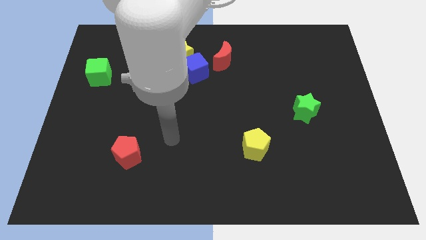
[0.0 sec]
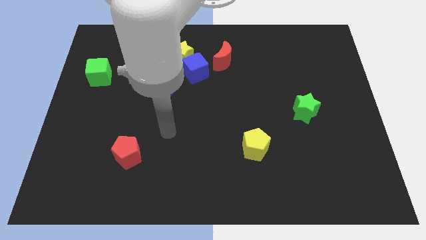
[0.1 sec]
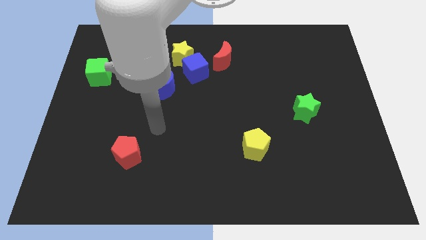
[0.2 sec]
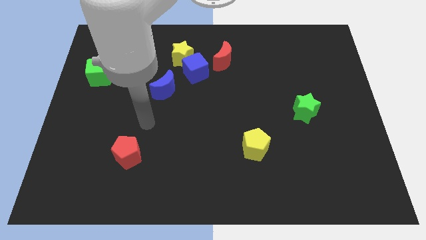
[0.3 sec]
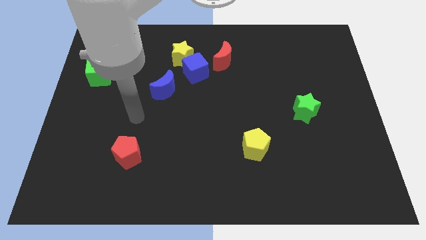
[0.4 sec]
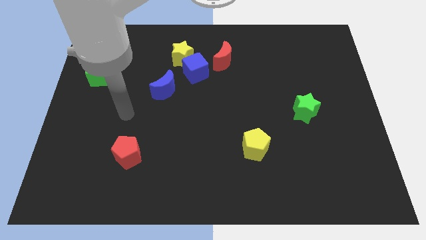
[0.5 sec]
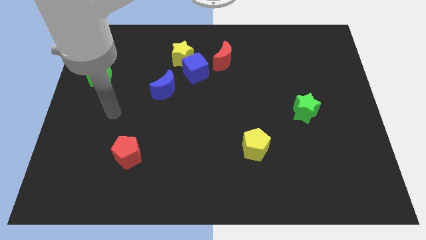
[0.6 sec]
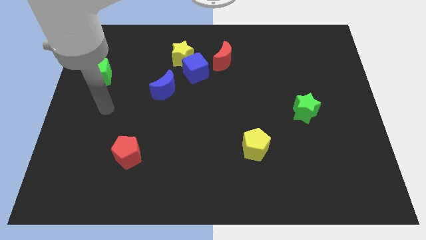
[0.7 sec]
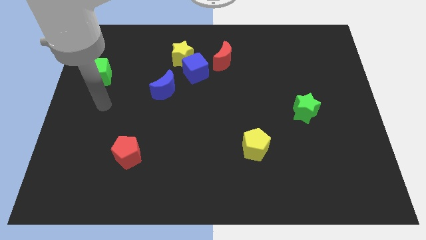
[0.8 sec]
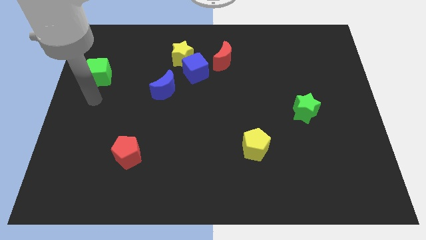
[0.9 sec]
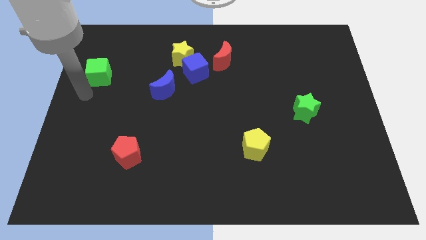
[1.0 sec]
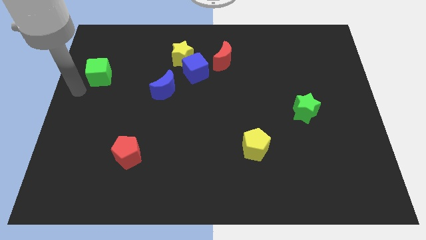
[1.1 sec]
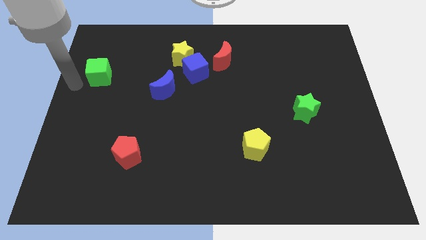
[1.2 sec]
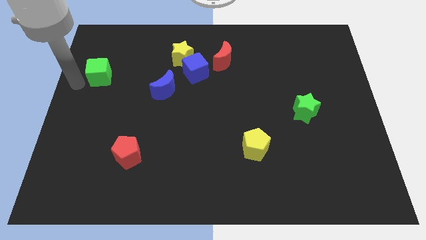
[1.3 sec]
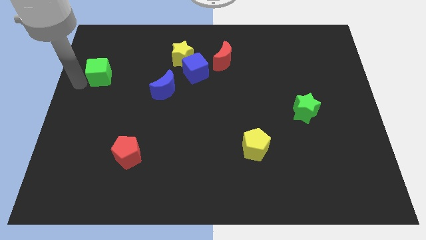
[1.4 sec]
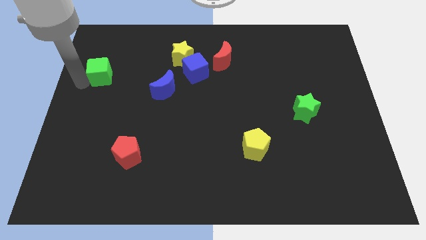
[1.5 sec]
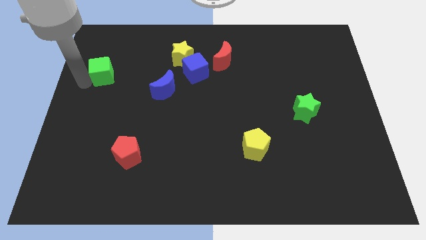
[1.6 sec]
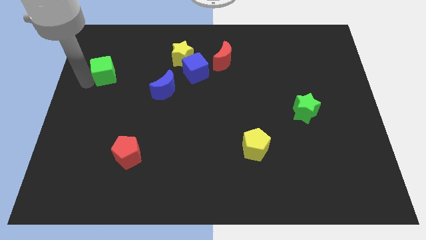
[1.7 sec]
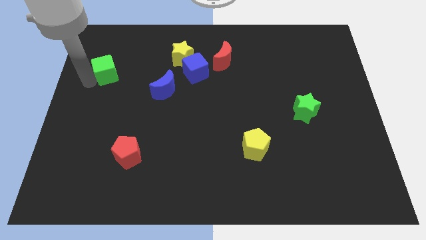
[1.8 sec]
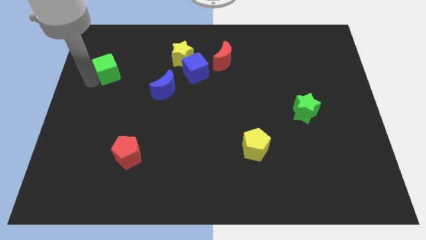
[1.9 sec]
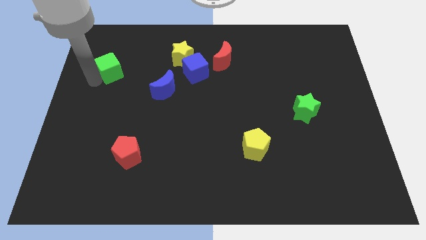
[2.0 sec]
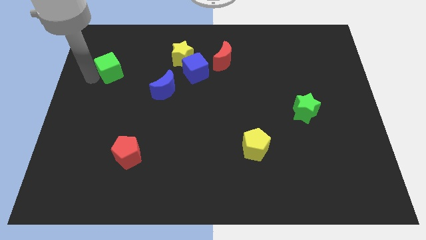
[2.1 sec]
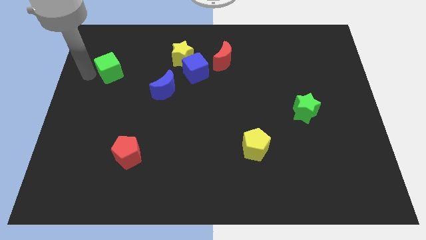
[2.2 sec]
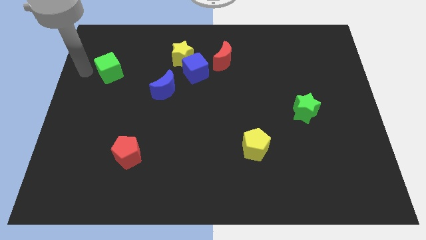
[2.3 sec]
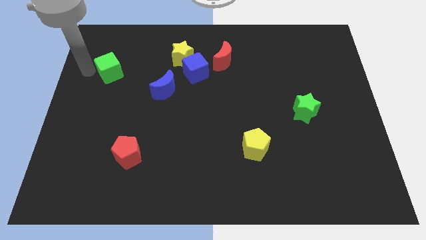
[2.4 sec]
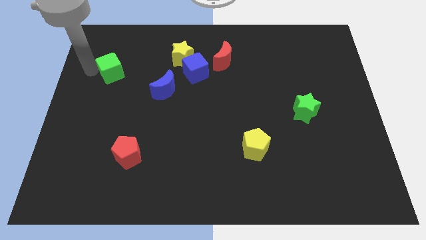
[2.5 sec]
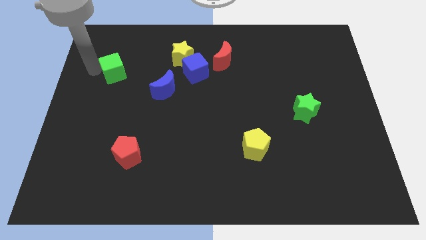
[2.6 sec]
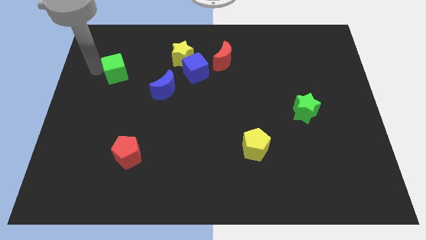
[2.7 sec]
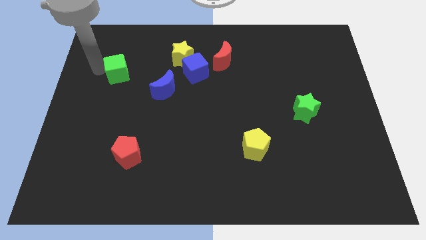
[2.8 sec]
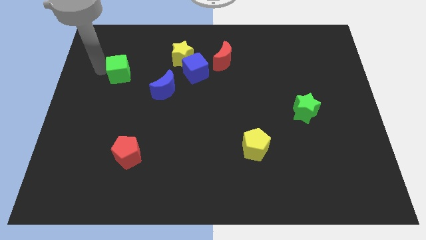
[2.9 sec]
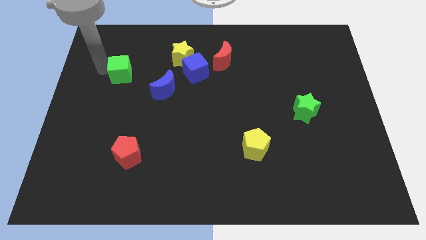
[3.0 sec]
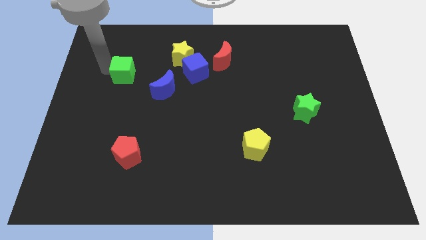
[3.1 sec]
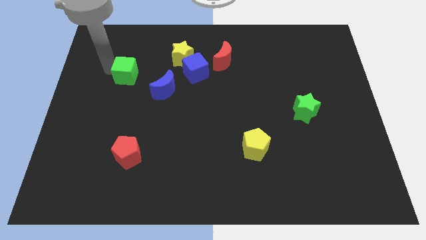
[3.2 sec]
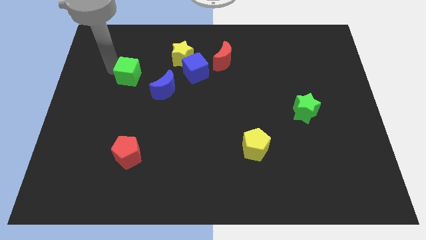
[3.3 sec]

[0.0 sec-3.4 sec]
move the green cube right slightly

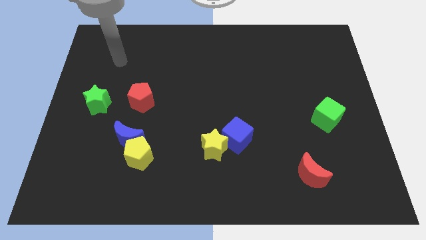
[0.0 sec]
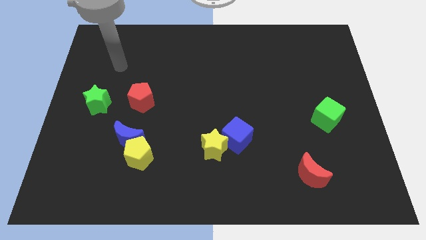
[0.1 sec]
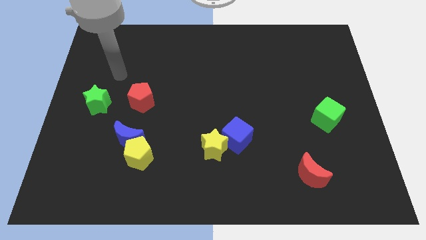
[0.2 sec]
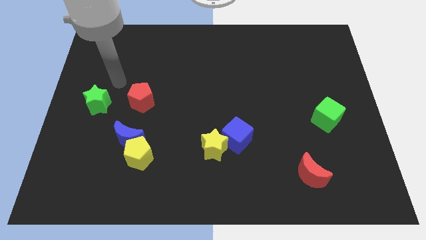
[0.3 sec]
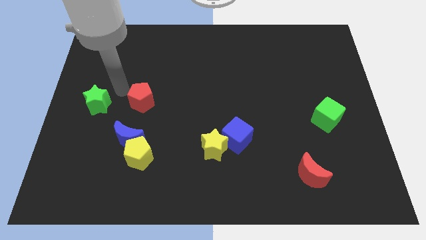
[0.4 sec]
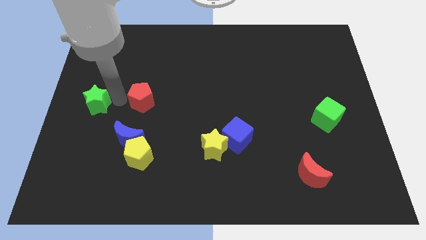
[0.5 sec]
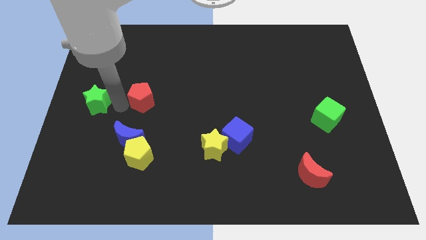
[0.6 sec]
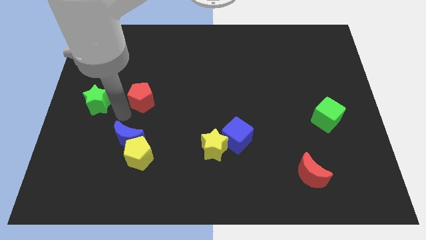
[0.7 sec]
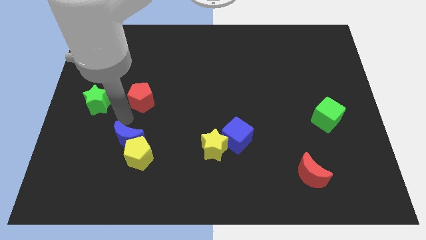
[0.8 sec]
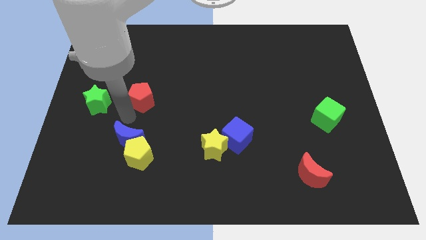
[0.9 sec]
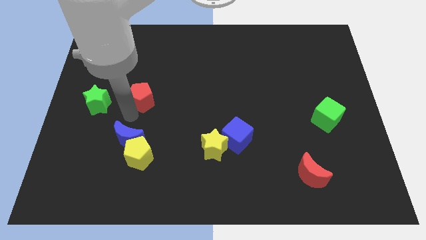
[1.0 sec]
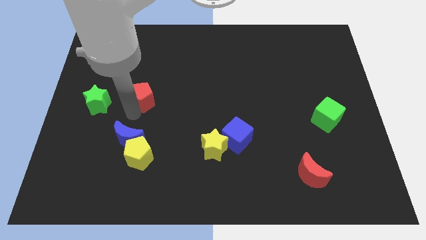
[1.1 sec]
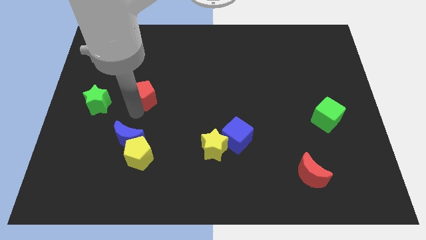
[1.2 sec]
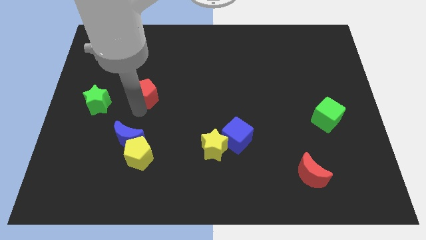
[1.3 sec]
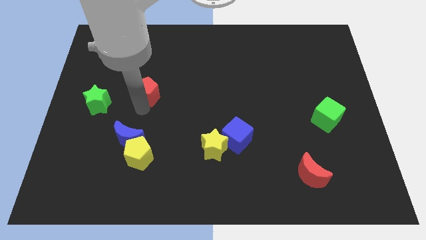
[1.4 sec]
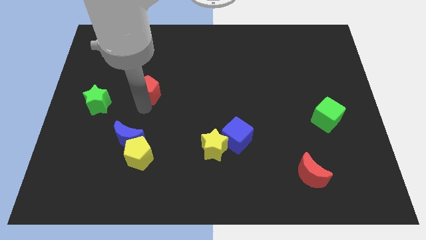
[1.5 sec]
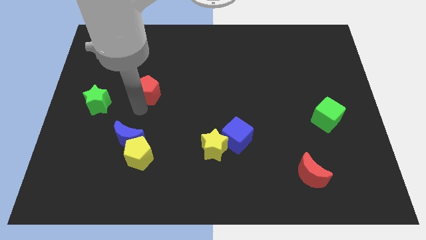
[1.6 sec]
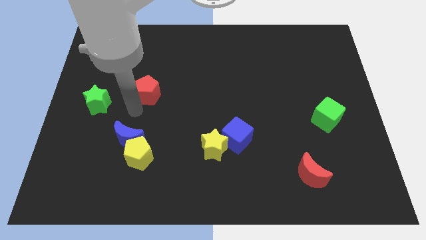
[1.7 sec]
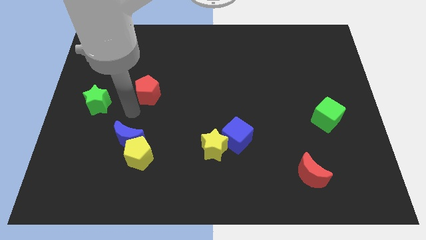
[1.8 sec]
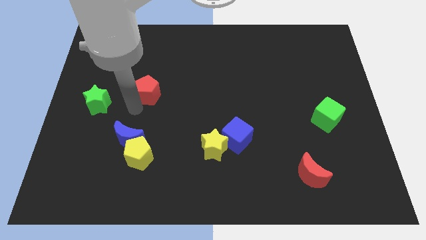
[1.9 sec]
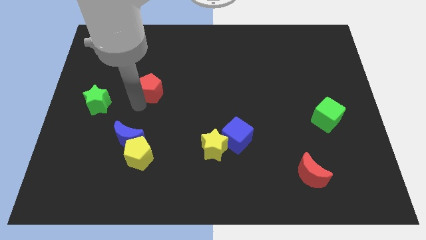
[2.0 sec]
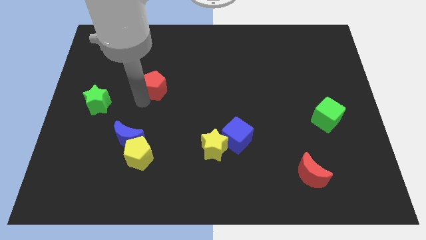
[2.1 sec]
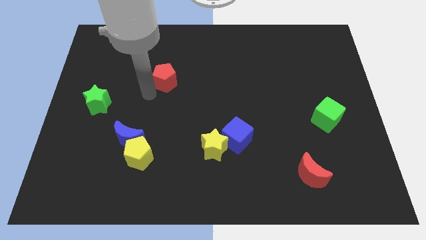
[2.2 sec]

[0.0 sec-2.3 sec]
move the red pentagon a little bit up and to the right

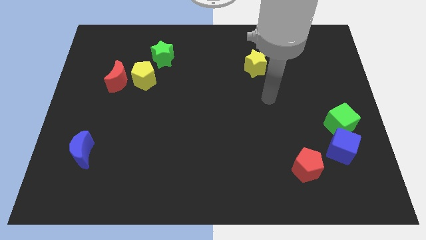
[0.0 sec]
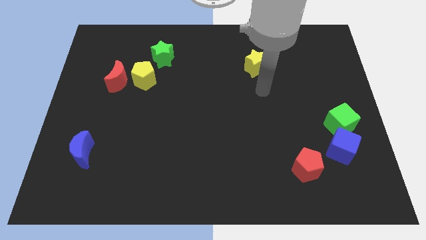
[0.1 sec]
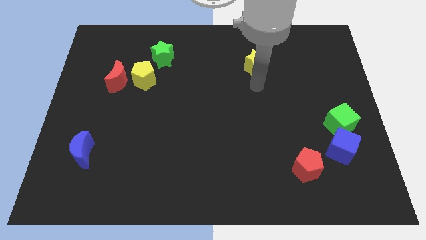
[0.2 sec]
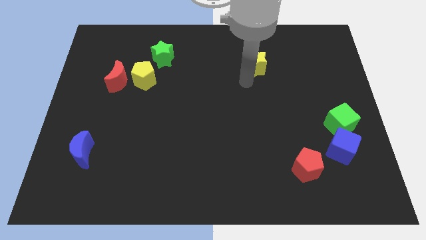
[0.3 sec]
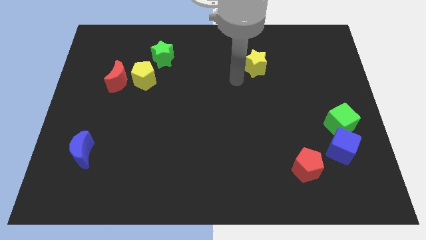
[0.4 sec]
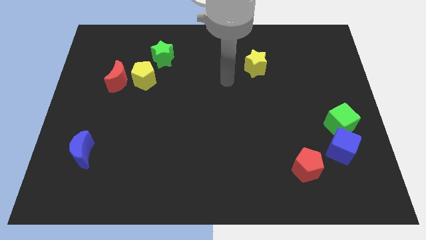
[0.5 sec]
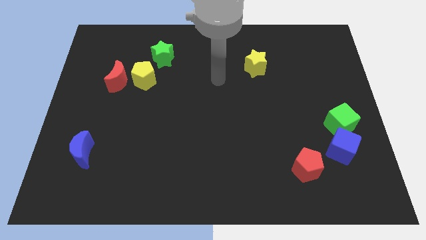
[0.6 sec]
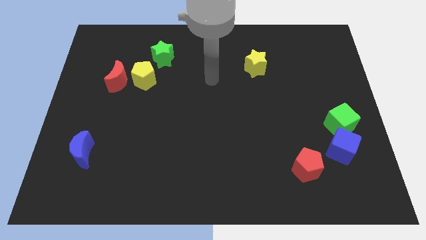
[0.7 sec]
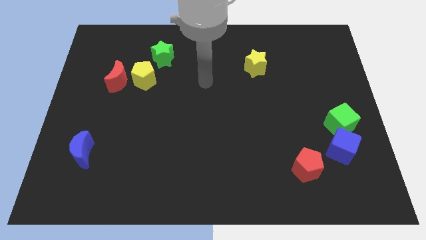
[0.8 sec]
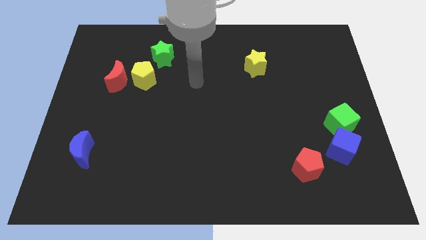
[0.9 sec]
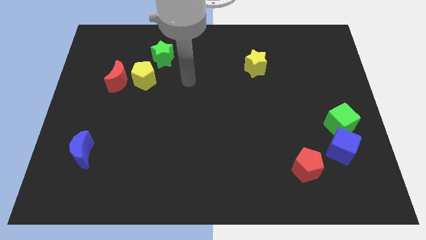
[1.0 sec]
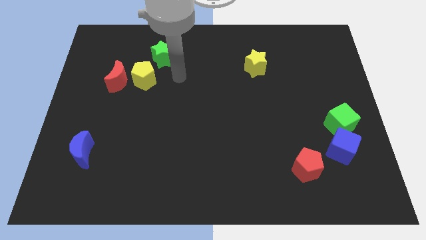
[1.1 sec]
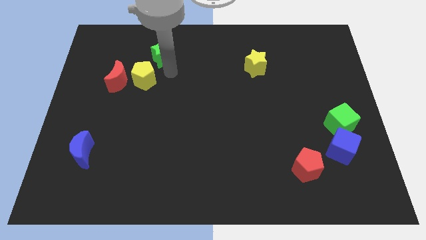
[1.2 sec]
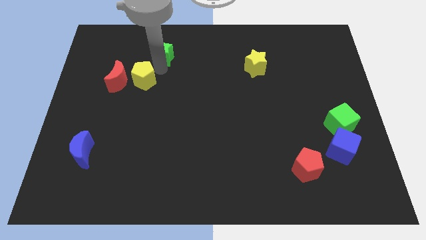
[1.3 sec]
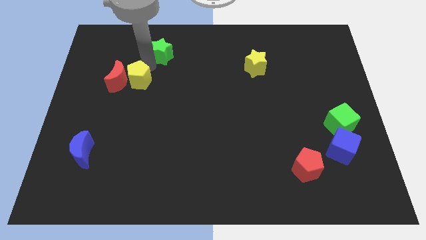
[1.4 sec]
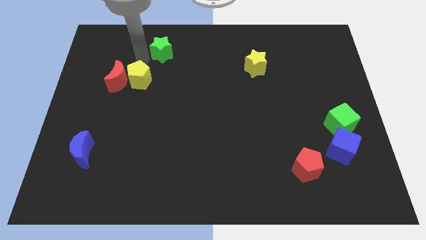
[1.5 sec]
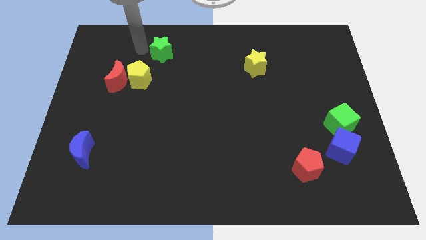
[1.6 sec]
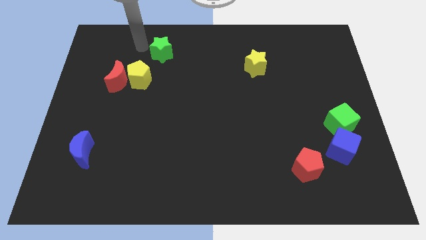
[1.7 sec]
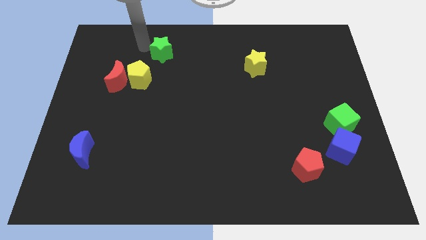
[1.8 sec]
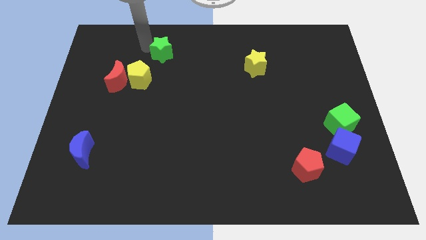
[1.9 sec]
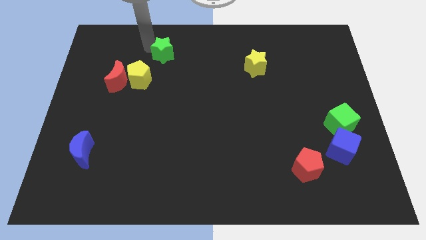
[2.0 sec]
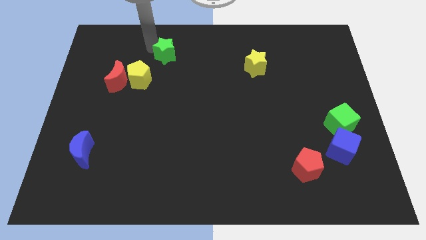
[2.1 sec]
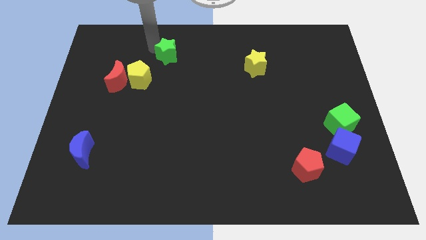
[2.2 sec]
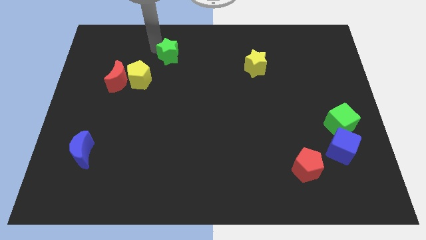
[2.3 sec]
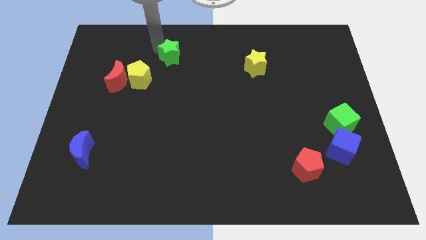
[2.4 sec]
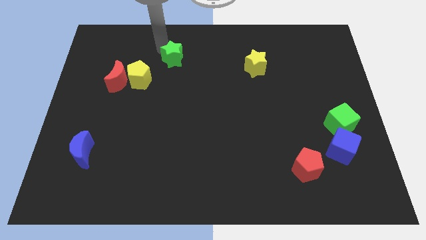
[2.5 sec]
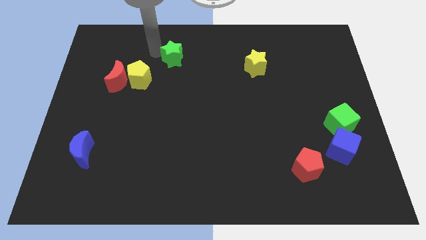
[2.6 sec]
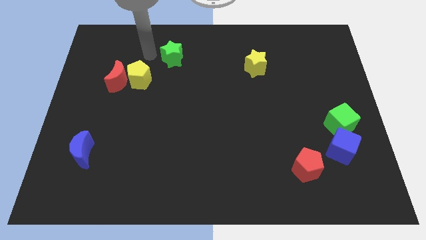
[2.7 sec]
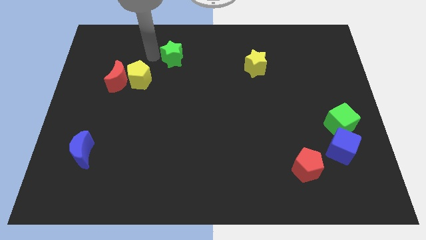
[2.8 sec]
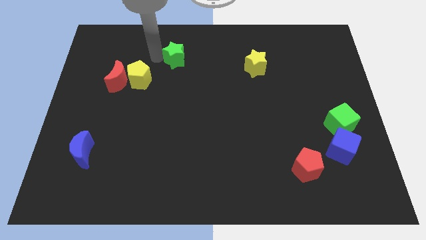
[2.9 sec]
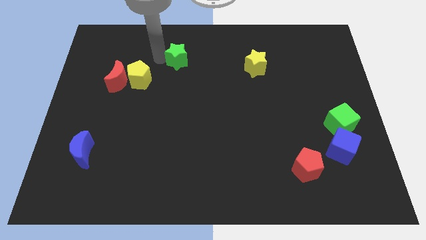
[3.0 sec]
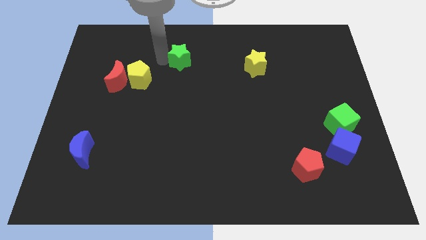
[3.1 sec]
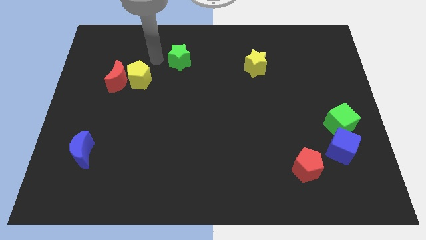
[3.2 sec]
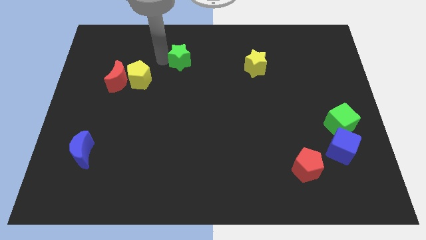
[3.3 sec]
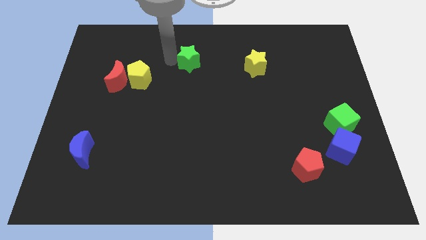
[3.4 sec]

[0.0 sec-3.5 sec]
slightly move the green star to the right
